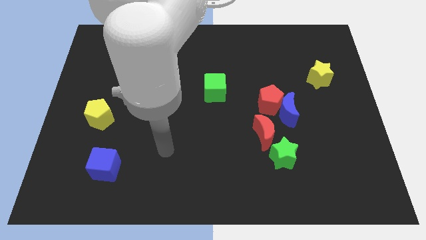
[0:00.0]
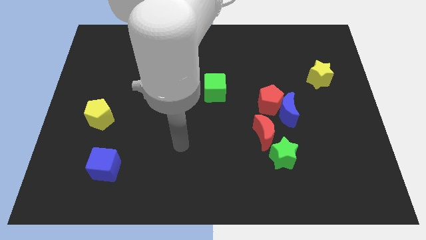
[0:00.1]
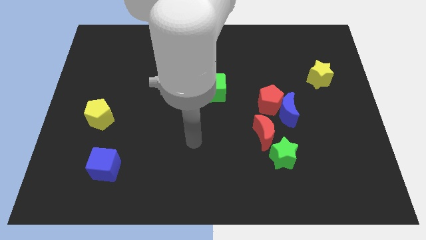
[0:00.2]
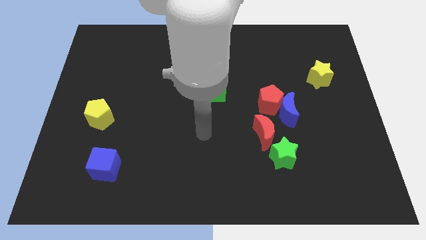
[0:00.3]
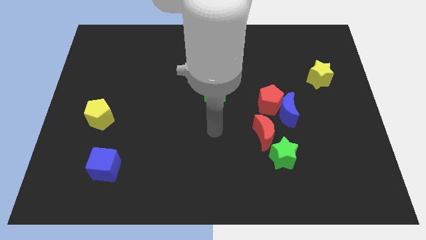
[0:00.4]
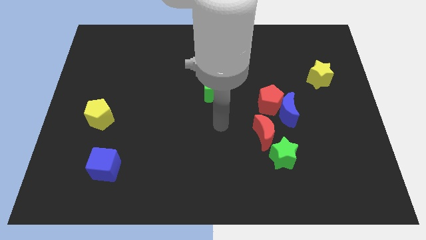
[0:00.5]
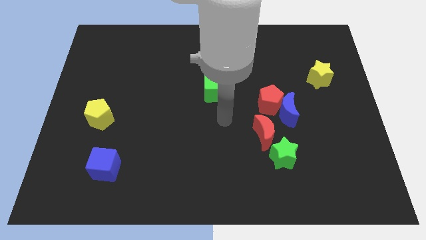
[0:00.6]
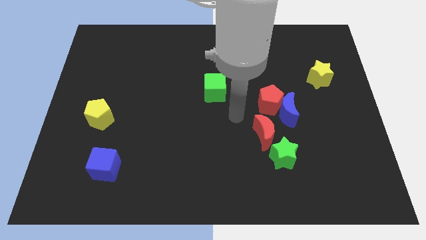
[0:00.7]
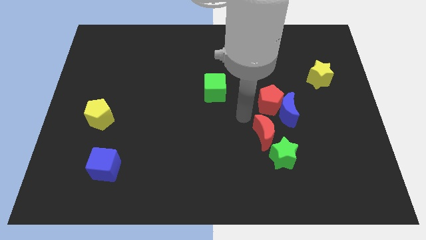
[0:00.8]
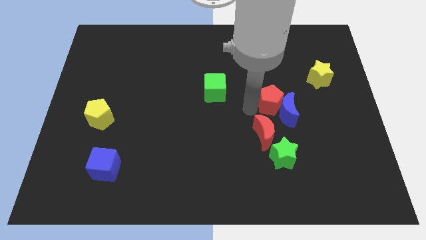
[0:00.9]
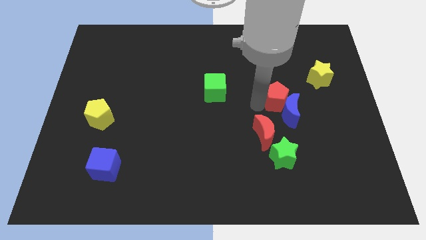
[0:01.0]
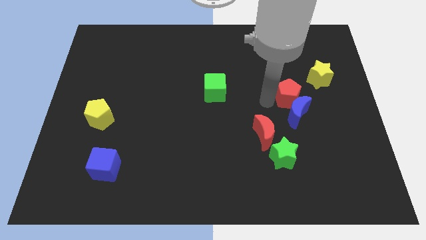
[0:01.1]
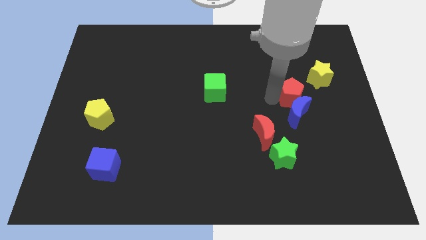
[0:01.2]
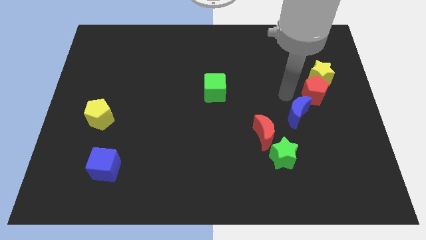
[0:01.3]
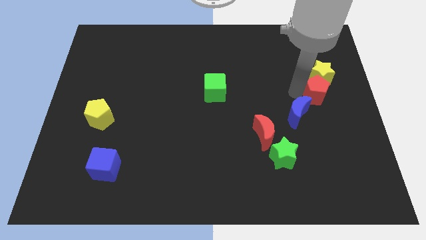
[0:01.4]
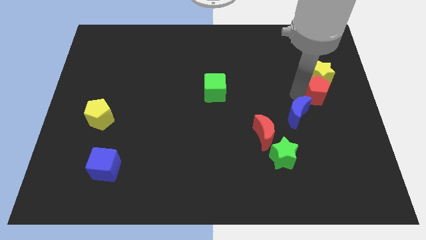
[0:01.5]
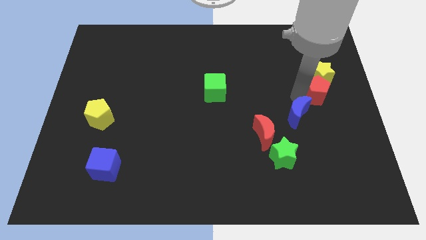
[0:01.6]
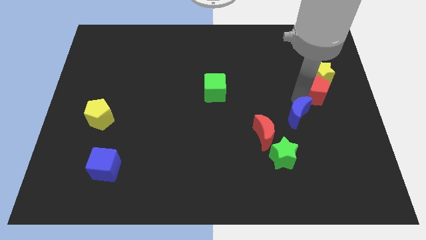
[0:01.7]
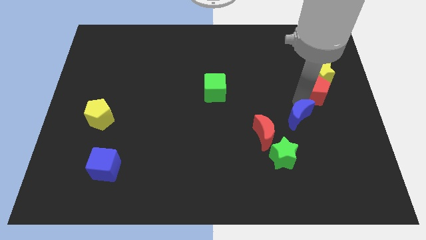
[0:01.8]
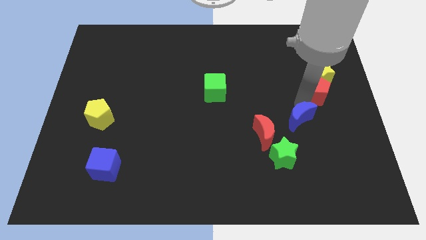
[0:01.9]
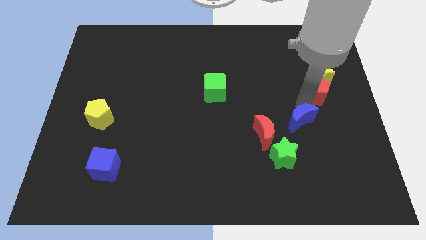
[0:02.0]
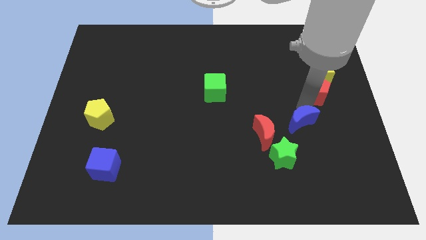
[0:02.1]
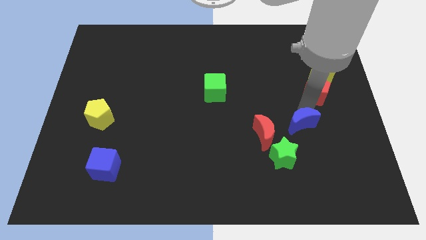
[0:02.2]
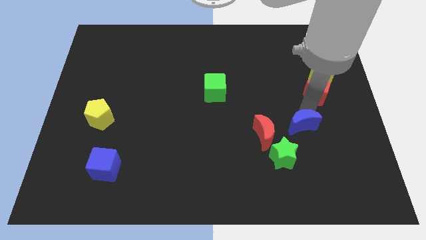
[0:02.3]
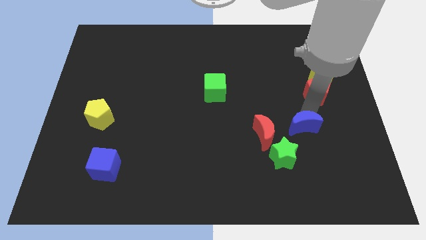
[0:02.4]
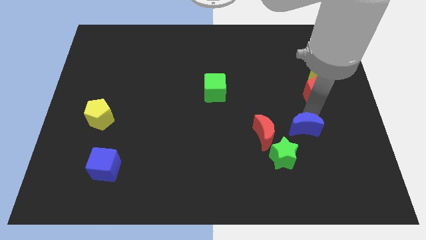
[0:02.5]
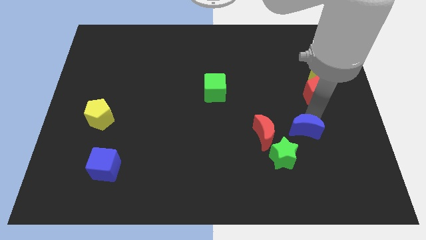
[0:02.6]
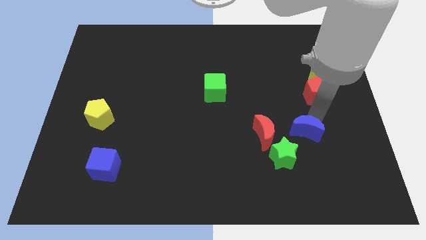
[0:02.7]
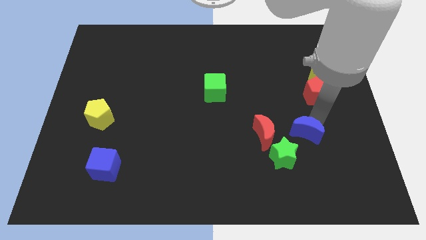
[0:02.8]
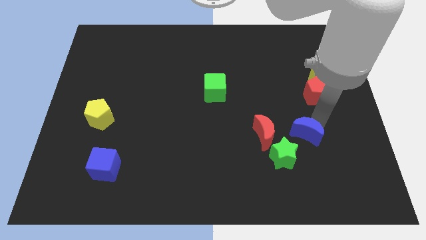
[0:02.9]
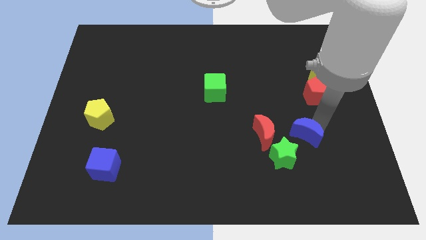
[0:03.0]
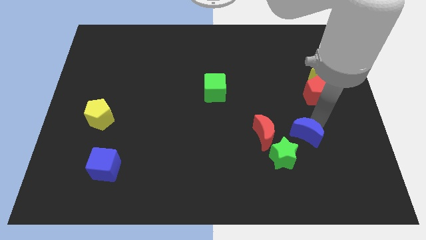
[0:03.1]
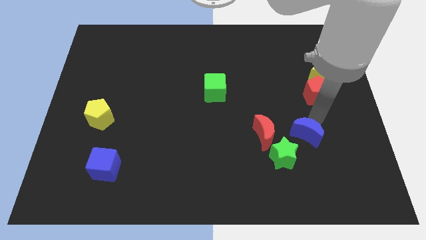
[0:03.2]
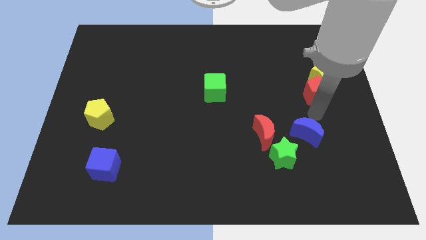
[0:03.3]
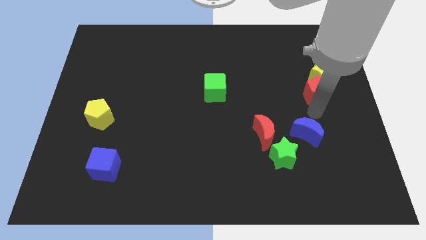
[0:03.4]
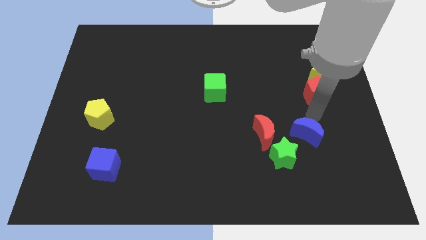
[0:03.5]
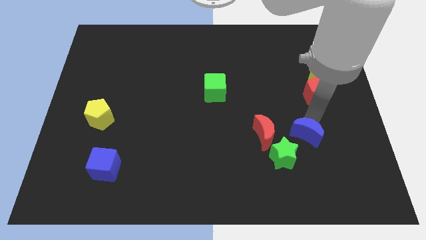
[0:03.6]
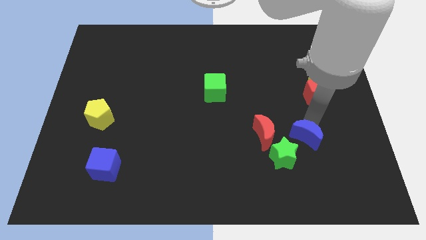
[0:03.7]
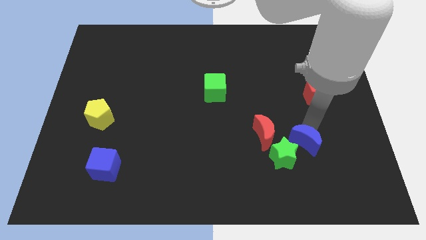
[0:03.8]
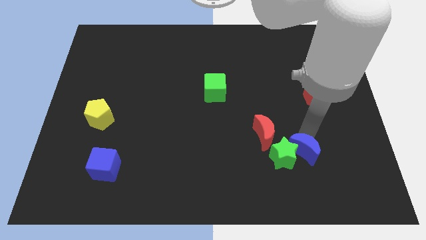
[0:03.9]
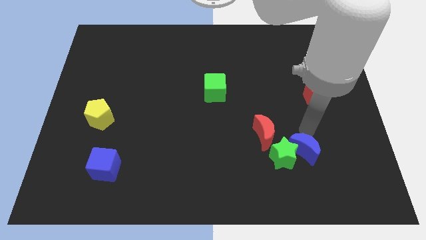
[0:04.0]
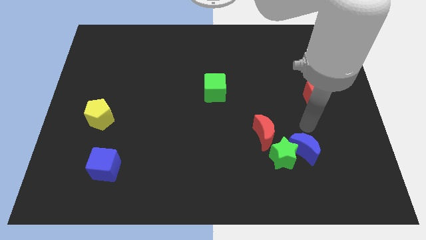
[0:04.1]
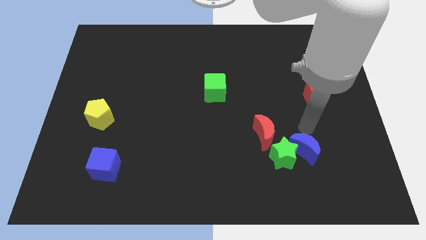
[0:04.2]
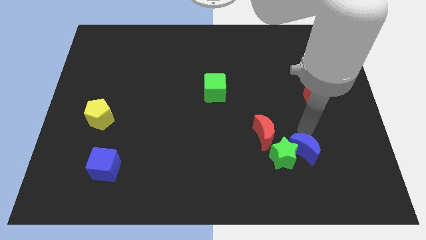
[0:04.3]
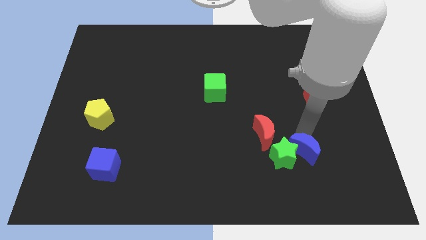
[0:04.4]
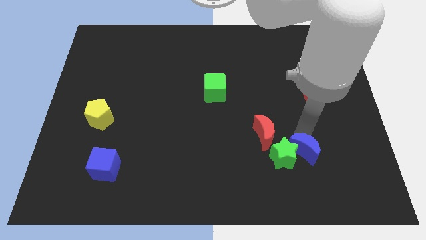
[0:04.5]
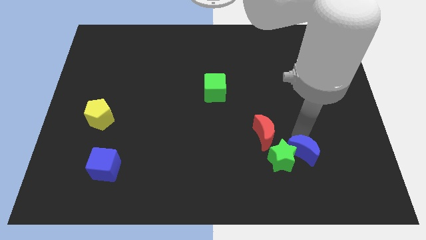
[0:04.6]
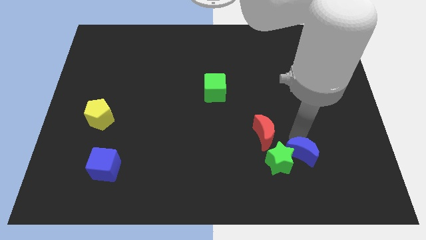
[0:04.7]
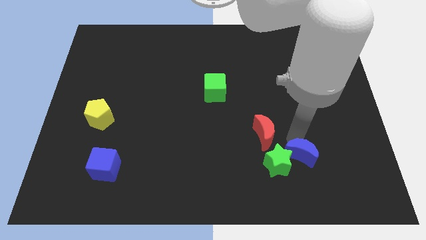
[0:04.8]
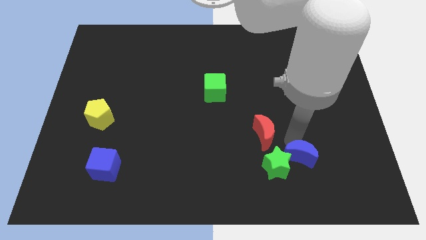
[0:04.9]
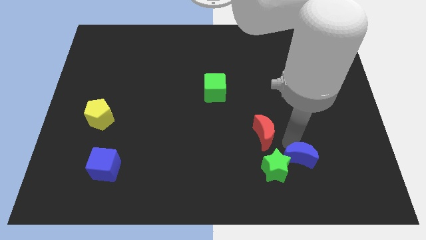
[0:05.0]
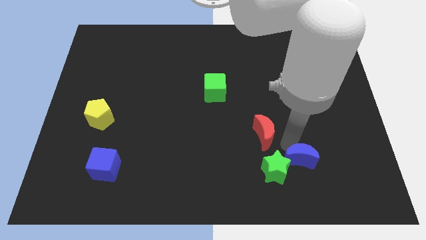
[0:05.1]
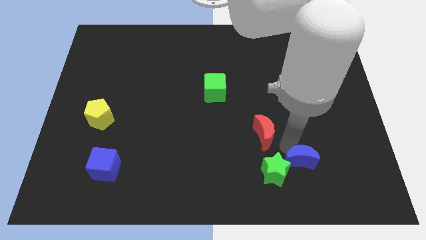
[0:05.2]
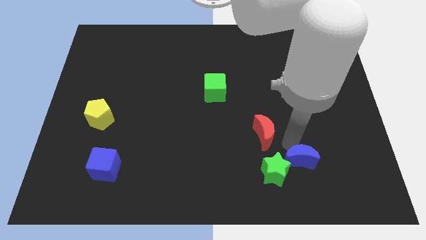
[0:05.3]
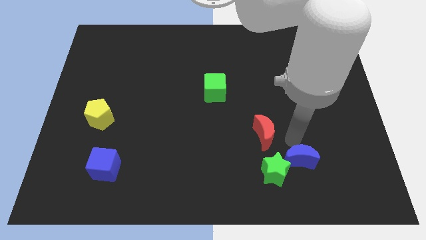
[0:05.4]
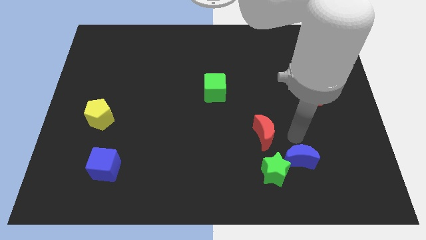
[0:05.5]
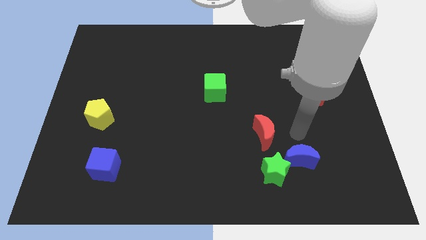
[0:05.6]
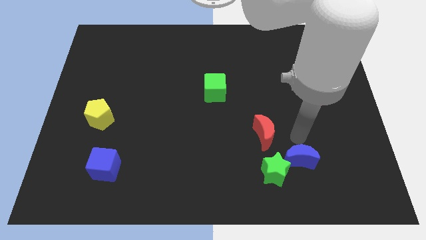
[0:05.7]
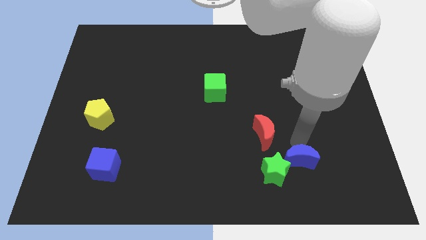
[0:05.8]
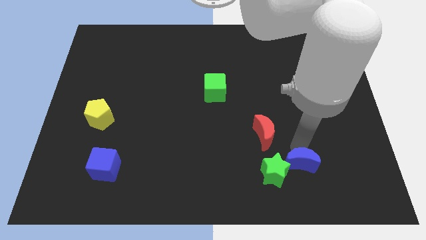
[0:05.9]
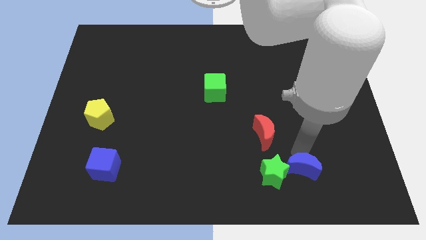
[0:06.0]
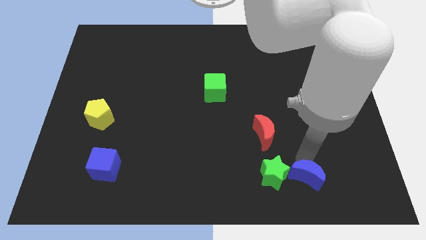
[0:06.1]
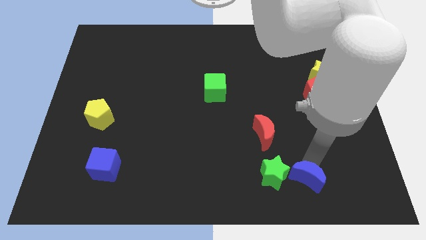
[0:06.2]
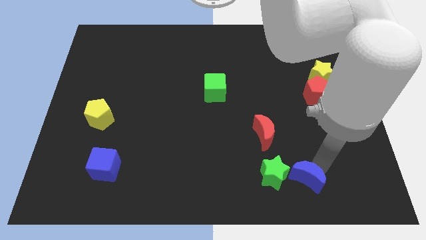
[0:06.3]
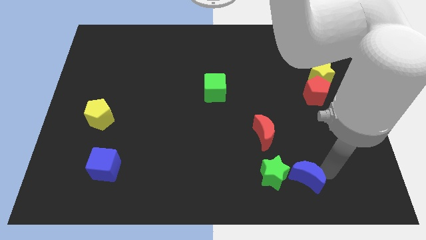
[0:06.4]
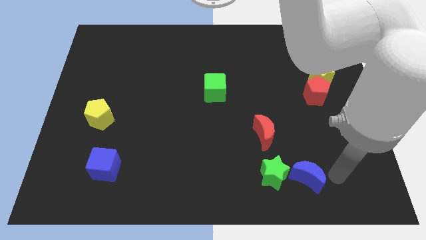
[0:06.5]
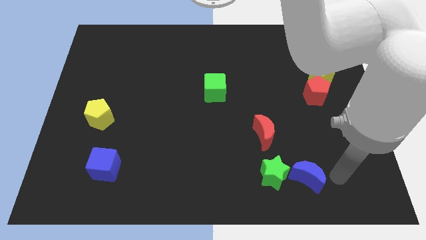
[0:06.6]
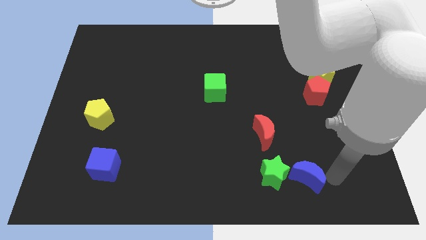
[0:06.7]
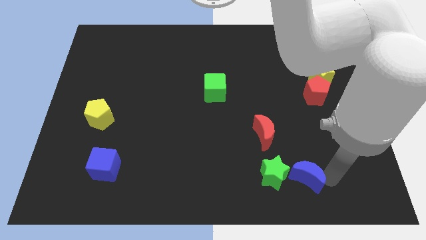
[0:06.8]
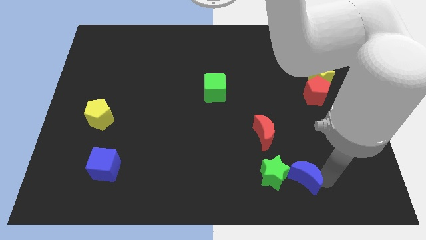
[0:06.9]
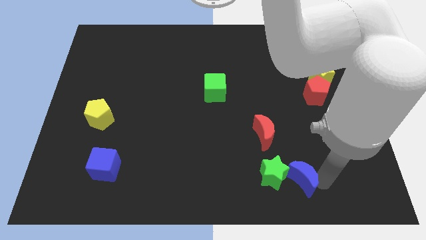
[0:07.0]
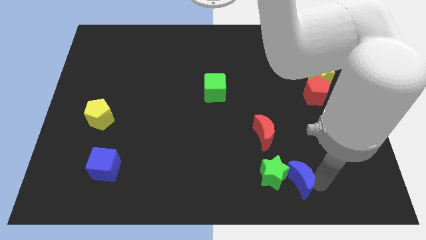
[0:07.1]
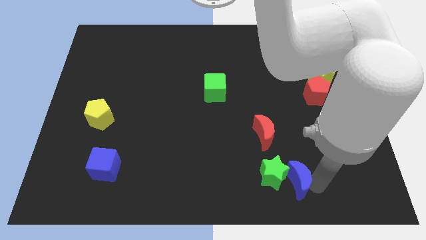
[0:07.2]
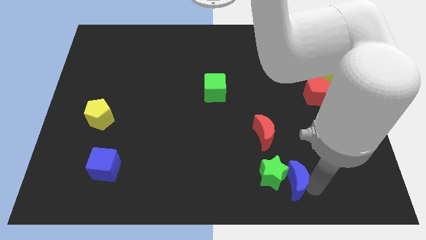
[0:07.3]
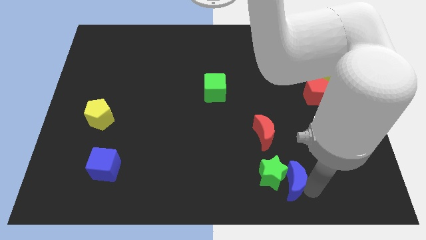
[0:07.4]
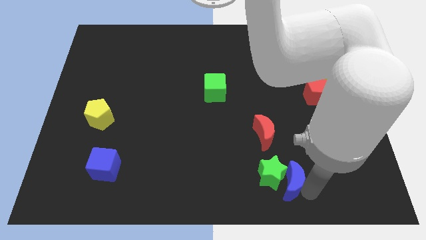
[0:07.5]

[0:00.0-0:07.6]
put the blue moon below the red moon

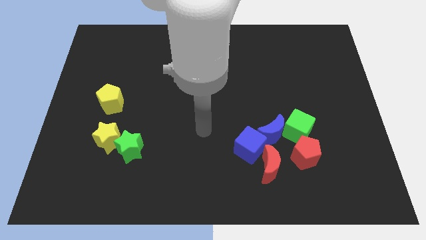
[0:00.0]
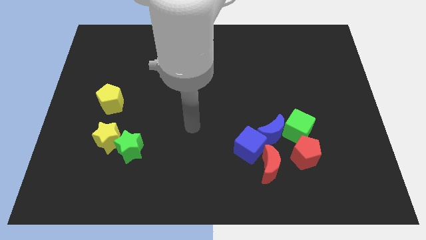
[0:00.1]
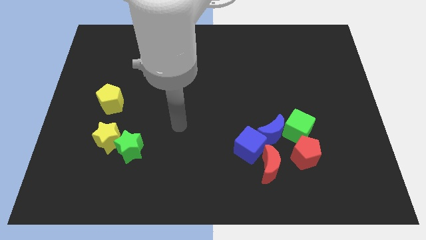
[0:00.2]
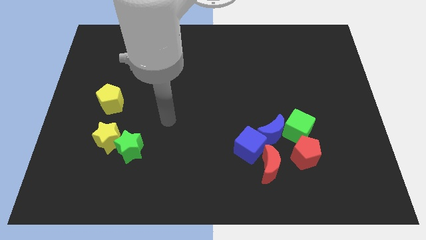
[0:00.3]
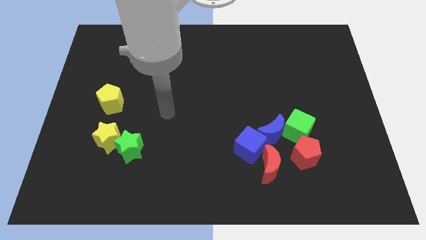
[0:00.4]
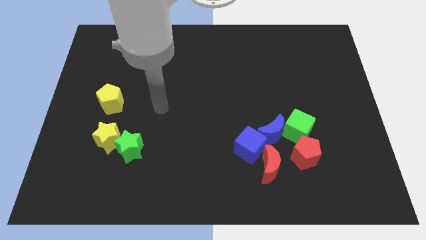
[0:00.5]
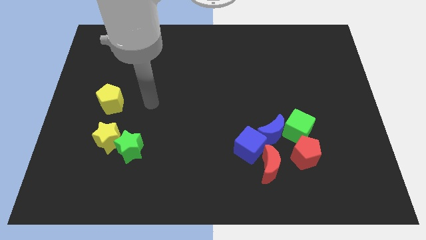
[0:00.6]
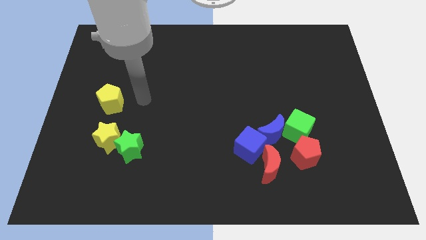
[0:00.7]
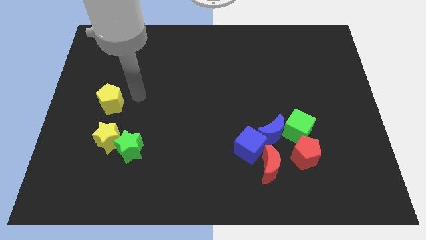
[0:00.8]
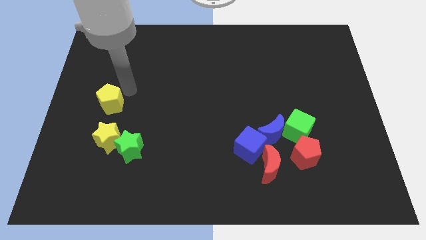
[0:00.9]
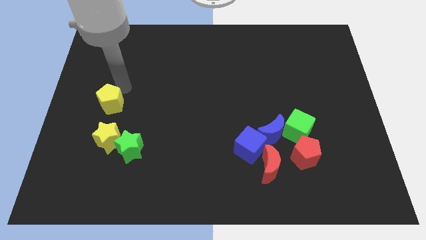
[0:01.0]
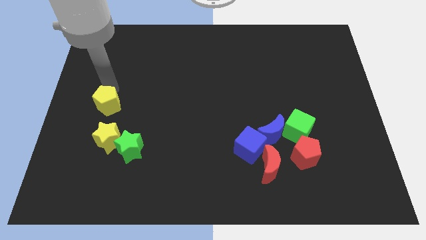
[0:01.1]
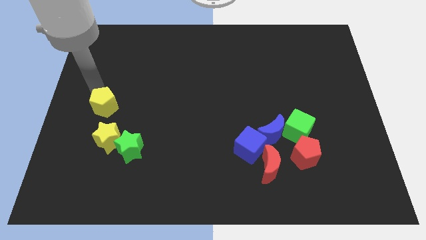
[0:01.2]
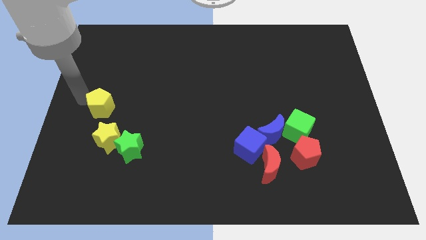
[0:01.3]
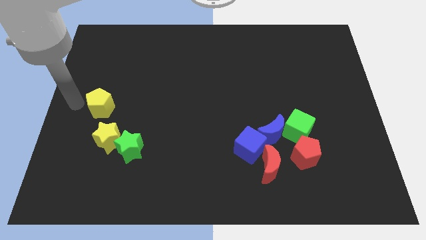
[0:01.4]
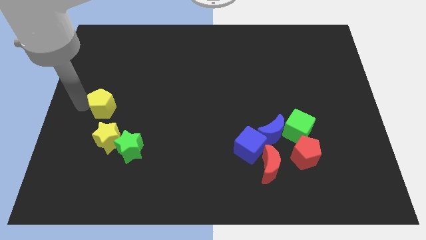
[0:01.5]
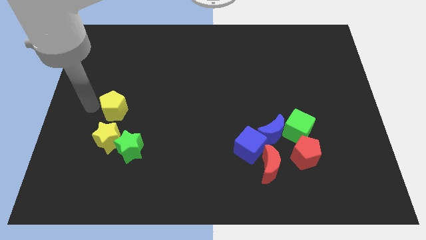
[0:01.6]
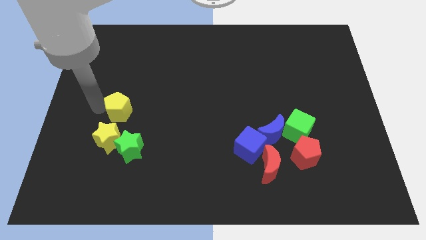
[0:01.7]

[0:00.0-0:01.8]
move the yellow pentagon above the green star
